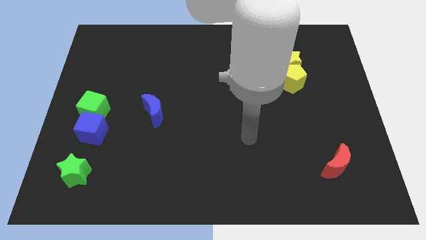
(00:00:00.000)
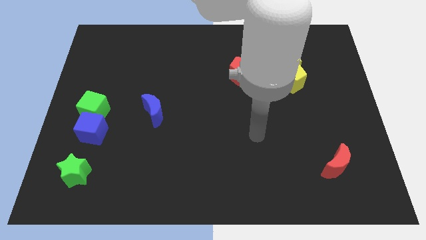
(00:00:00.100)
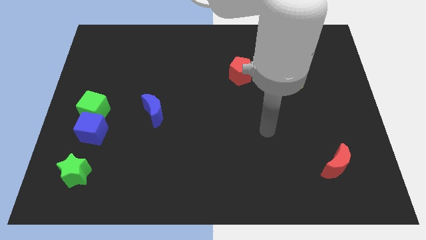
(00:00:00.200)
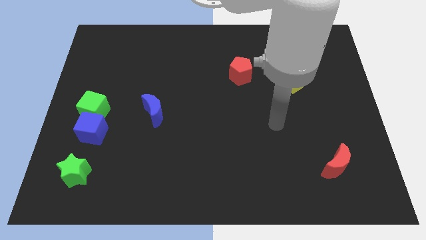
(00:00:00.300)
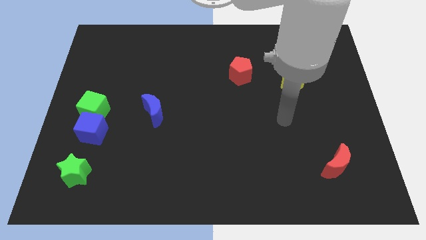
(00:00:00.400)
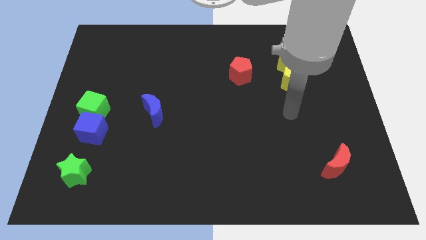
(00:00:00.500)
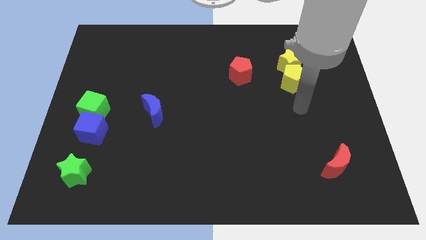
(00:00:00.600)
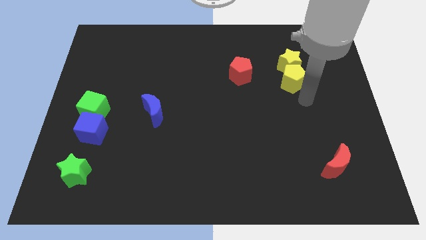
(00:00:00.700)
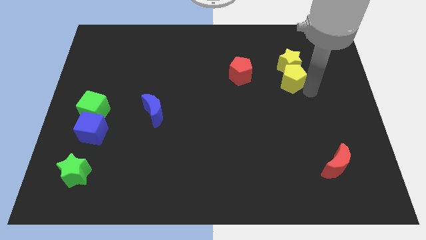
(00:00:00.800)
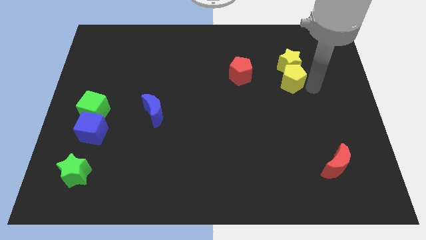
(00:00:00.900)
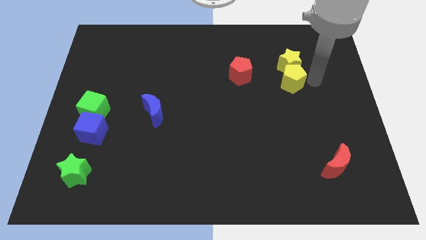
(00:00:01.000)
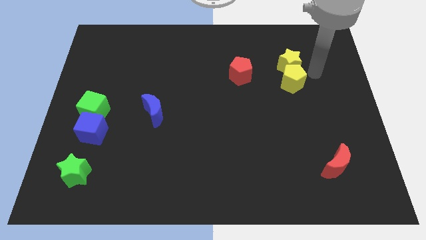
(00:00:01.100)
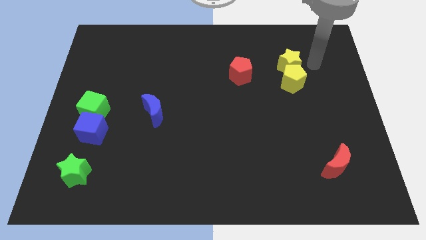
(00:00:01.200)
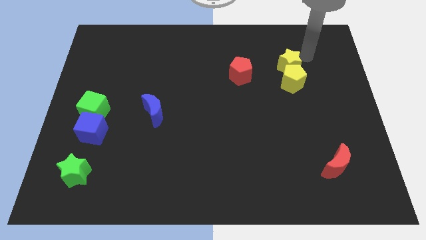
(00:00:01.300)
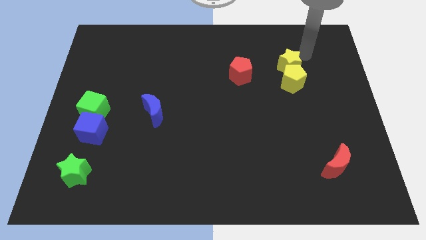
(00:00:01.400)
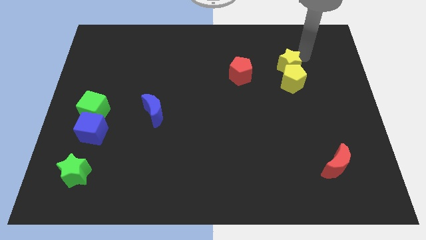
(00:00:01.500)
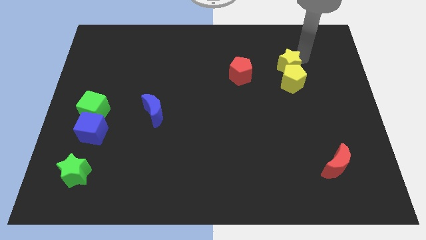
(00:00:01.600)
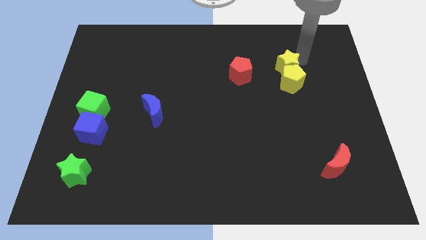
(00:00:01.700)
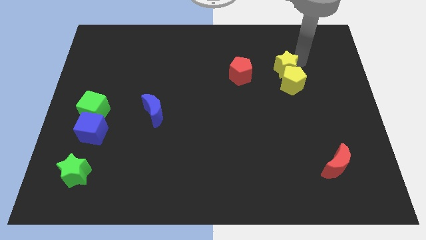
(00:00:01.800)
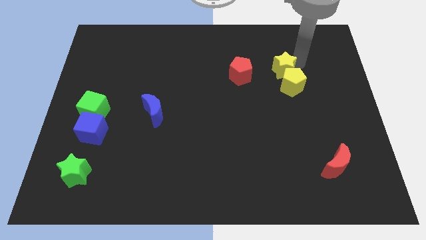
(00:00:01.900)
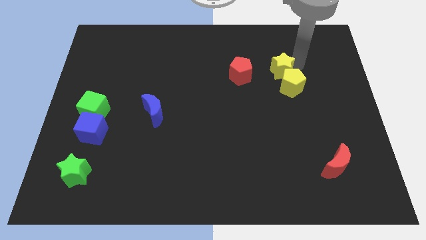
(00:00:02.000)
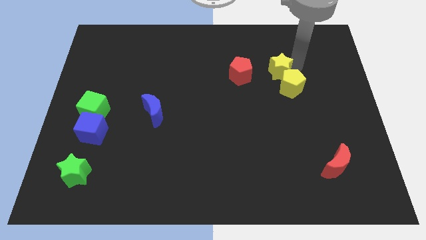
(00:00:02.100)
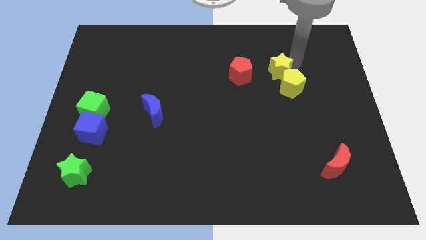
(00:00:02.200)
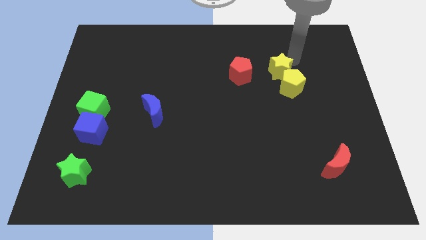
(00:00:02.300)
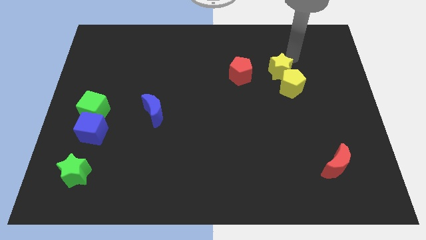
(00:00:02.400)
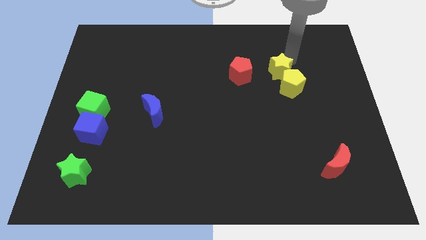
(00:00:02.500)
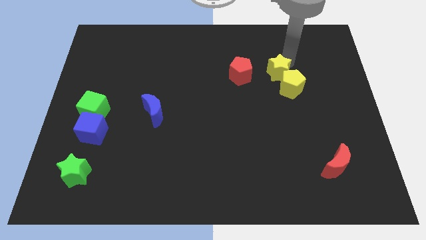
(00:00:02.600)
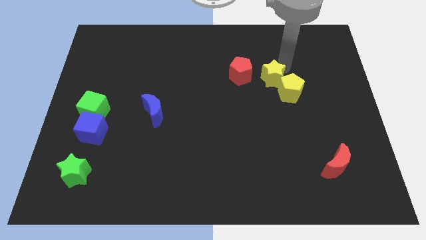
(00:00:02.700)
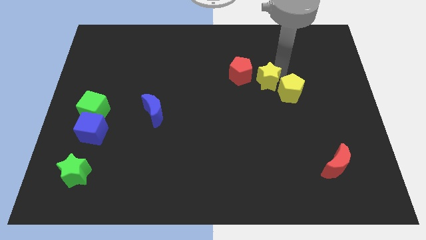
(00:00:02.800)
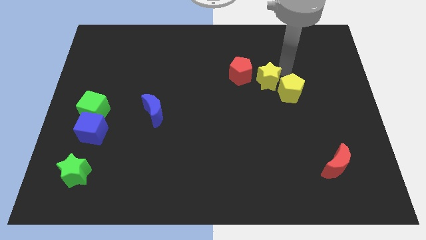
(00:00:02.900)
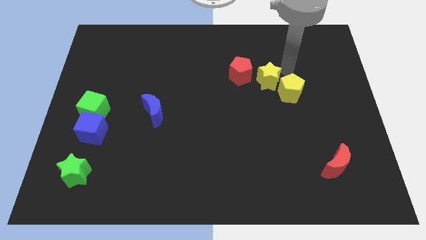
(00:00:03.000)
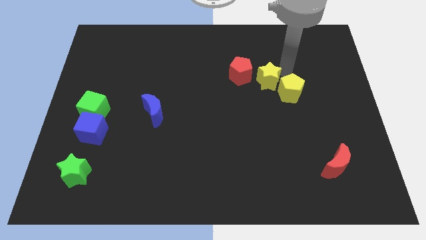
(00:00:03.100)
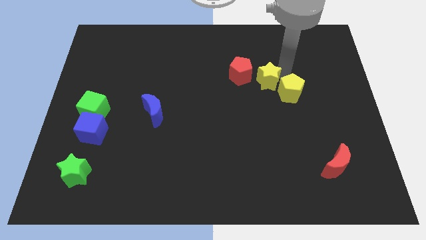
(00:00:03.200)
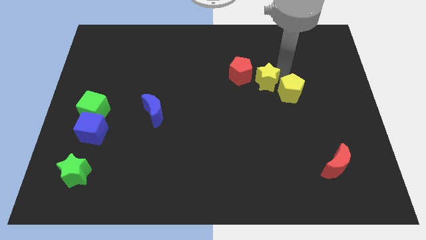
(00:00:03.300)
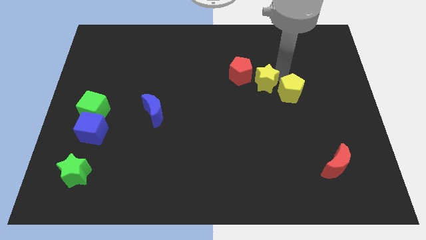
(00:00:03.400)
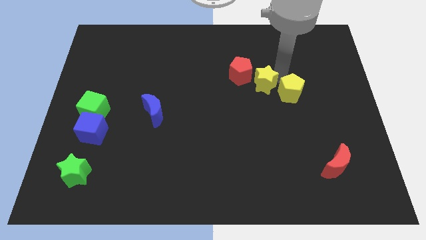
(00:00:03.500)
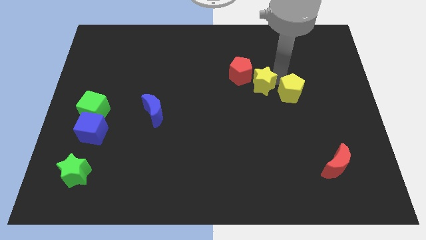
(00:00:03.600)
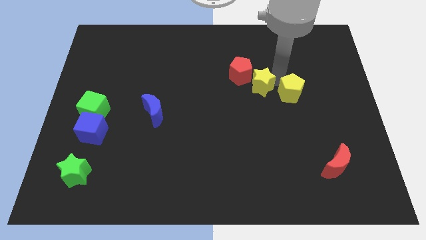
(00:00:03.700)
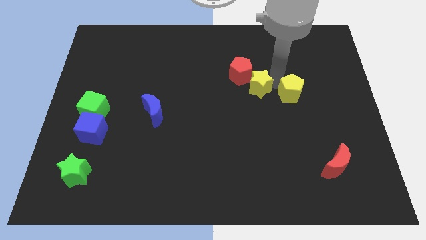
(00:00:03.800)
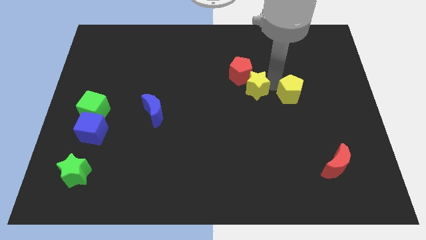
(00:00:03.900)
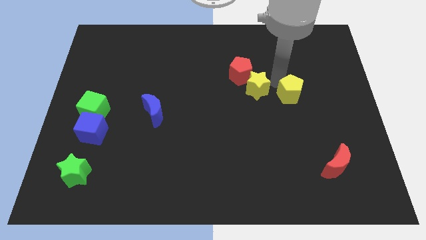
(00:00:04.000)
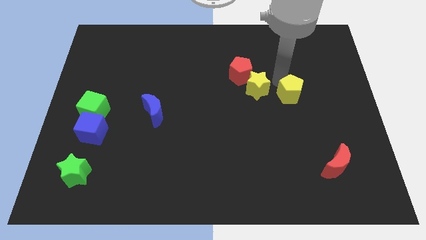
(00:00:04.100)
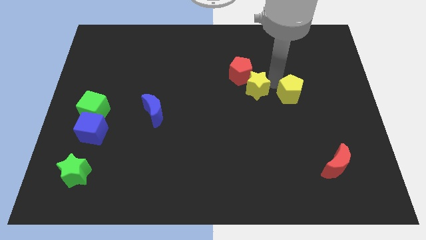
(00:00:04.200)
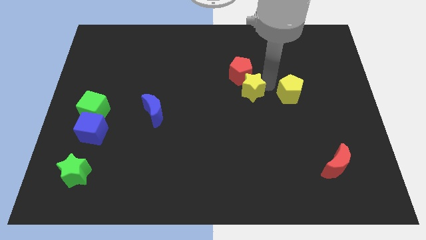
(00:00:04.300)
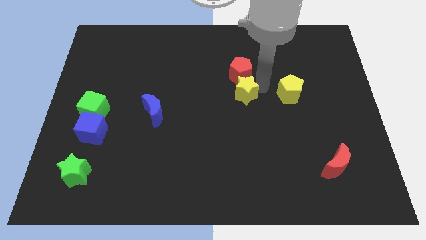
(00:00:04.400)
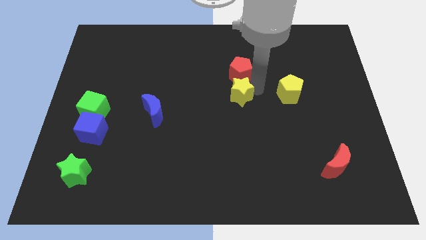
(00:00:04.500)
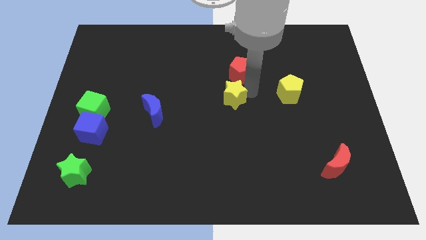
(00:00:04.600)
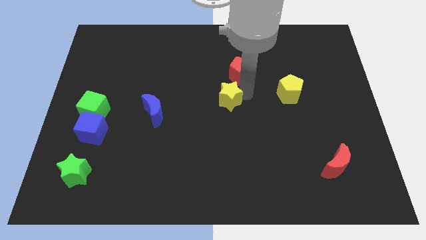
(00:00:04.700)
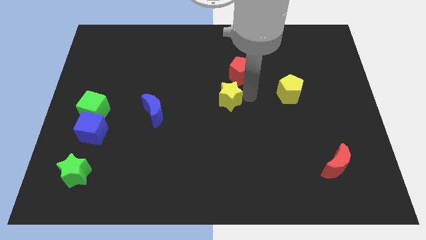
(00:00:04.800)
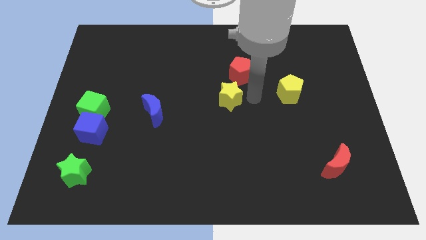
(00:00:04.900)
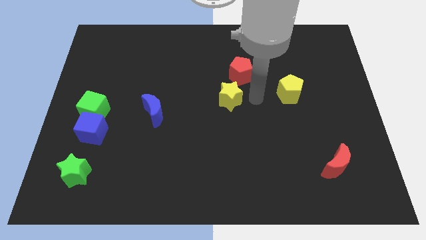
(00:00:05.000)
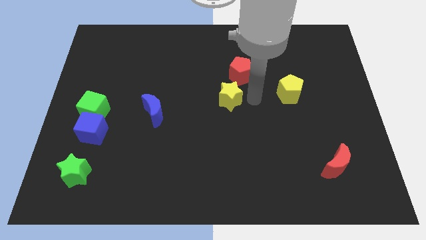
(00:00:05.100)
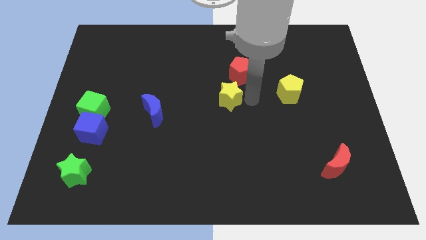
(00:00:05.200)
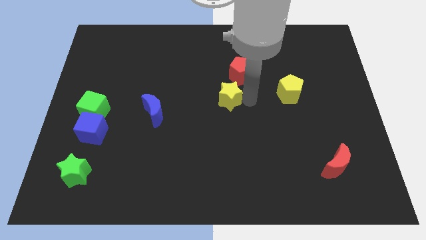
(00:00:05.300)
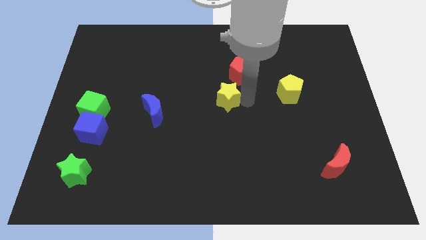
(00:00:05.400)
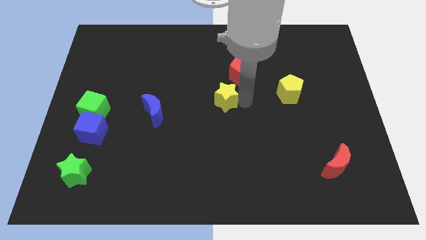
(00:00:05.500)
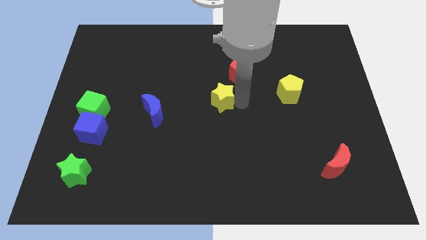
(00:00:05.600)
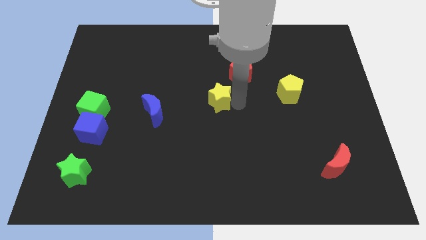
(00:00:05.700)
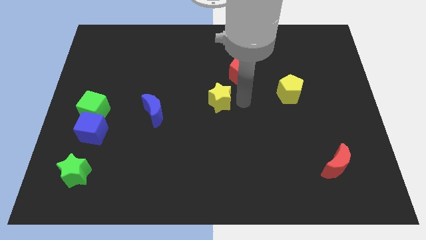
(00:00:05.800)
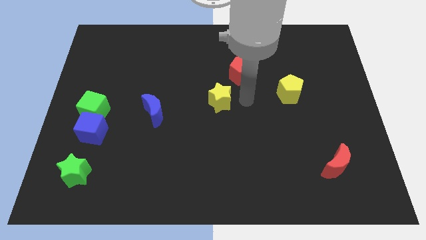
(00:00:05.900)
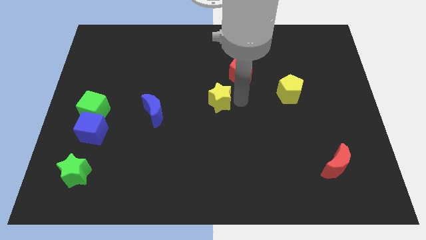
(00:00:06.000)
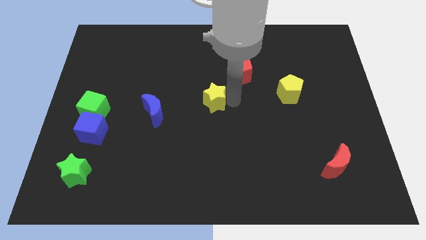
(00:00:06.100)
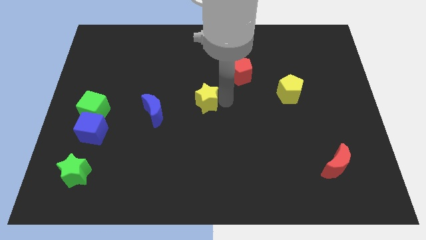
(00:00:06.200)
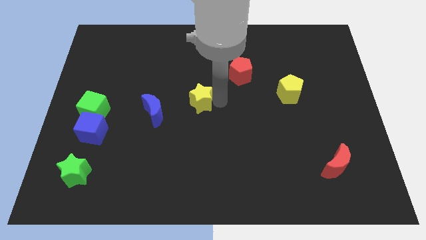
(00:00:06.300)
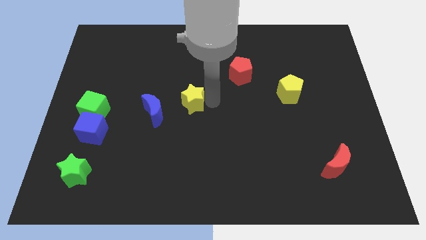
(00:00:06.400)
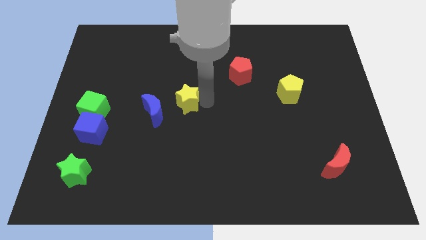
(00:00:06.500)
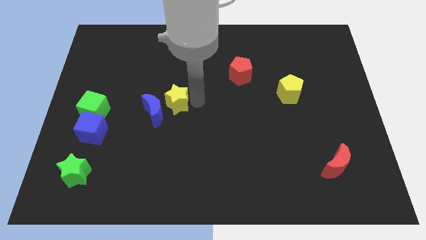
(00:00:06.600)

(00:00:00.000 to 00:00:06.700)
push the yellow star close to the blue moon

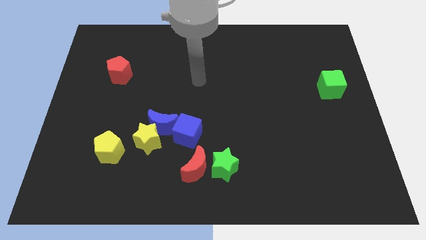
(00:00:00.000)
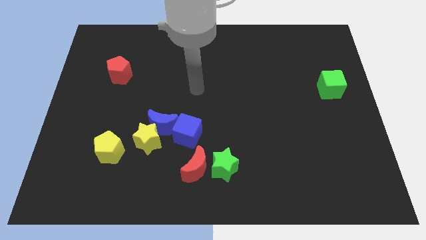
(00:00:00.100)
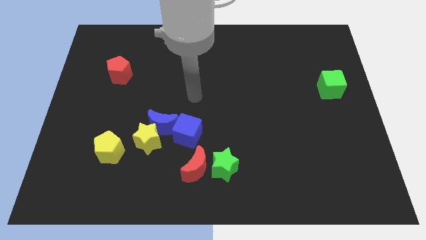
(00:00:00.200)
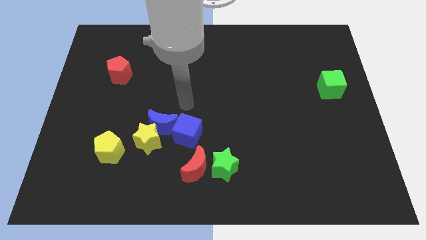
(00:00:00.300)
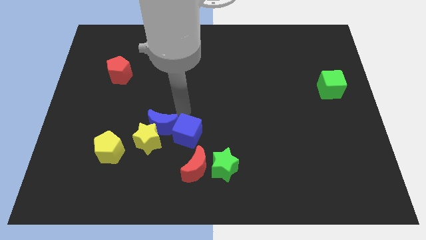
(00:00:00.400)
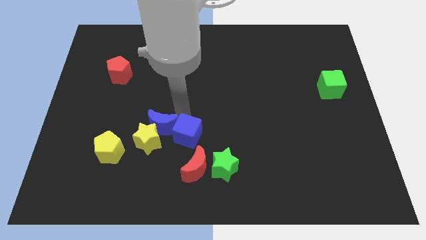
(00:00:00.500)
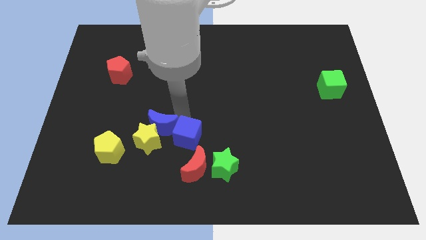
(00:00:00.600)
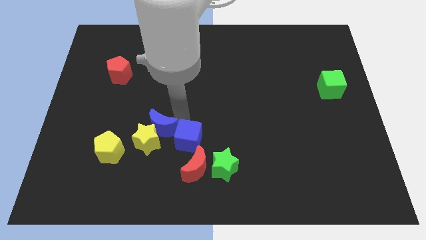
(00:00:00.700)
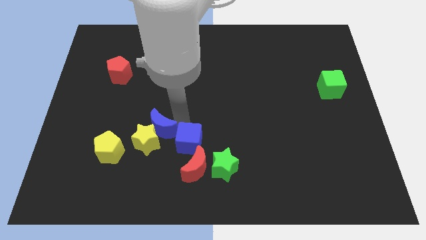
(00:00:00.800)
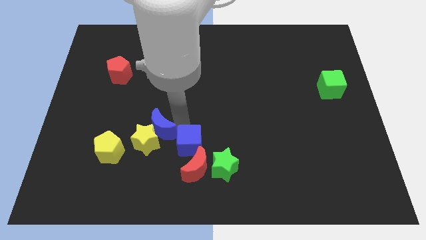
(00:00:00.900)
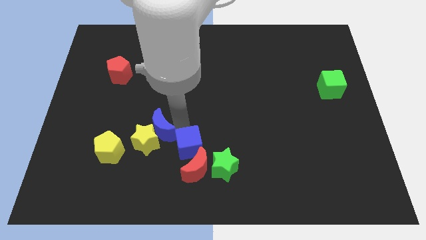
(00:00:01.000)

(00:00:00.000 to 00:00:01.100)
put the blue cube close to the red moon

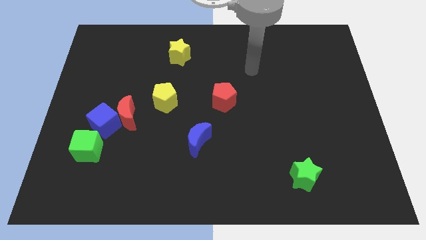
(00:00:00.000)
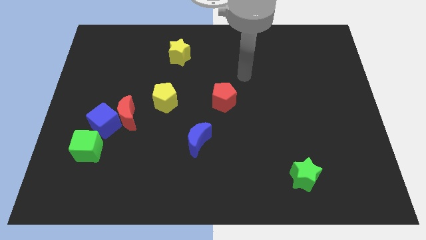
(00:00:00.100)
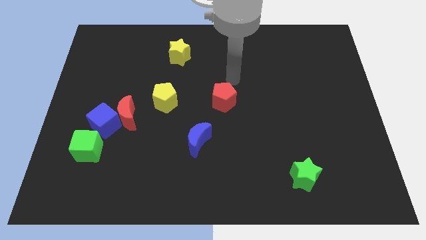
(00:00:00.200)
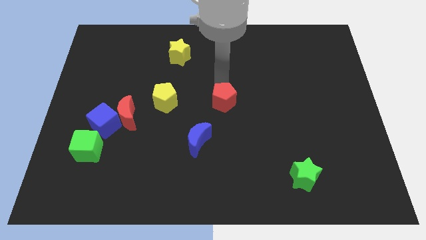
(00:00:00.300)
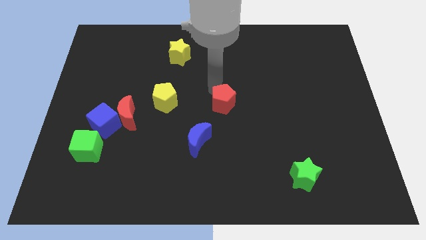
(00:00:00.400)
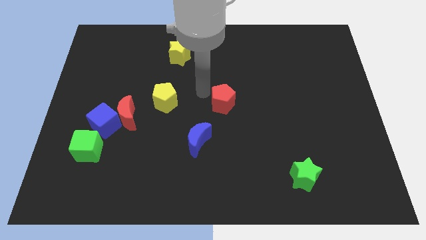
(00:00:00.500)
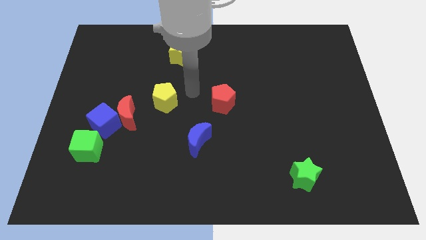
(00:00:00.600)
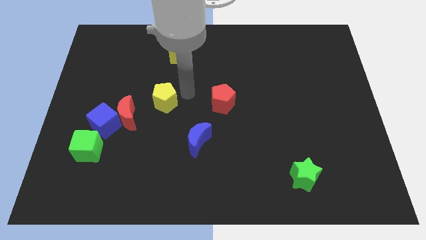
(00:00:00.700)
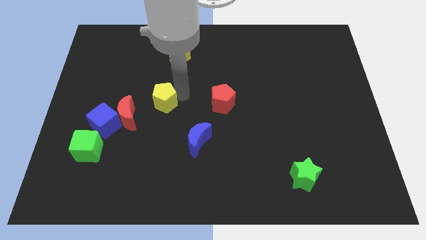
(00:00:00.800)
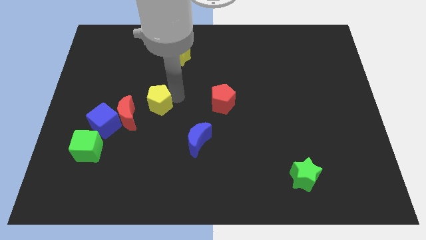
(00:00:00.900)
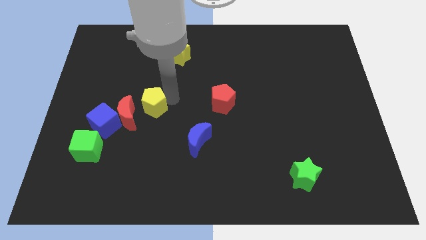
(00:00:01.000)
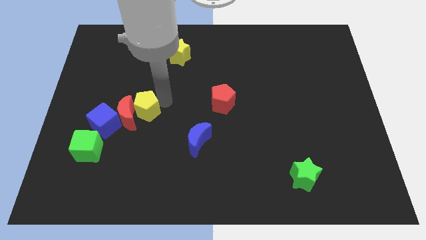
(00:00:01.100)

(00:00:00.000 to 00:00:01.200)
put the yellow pentagon towards the red moon
